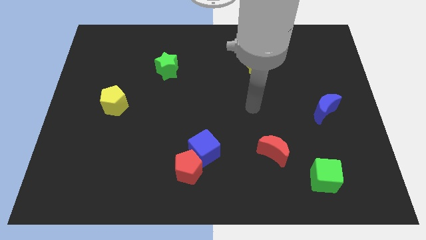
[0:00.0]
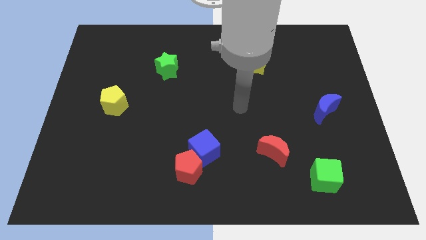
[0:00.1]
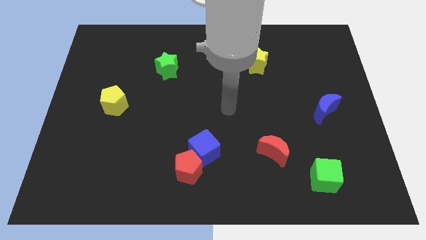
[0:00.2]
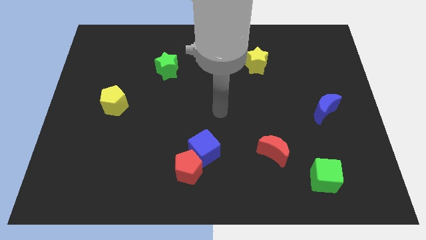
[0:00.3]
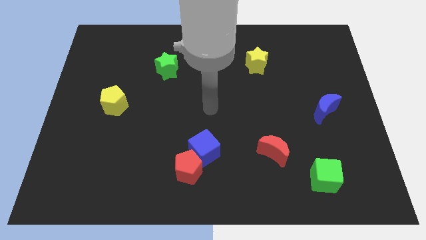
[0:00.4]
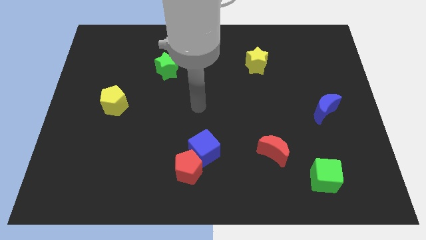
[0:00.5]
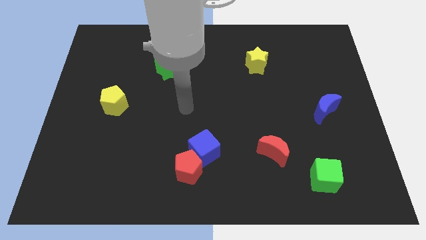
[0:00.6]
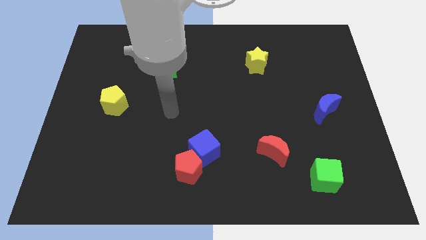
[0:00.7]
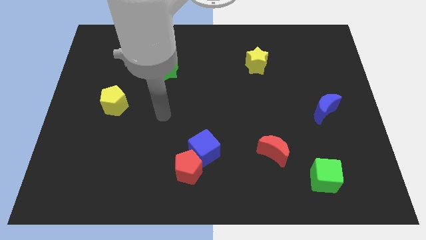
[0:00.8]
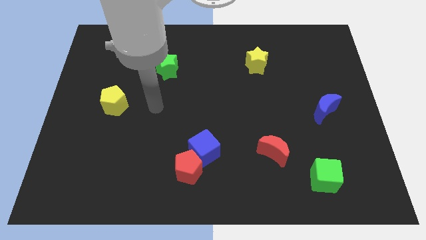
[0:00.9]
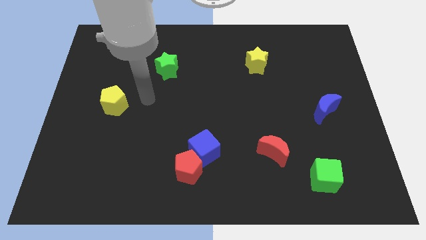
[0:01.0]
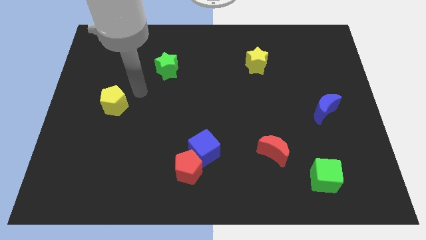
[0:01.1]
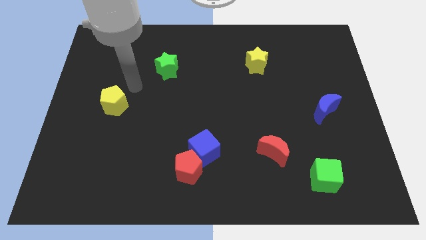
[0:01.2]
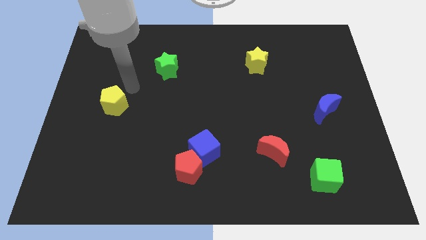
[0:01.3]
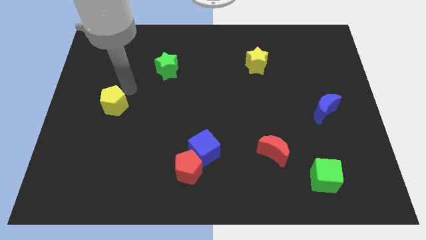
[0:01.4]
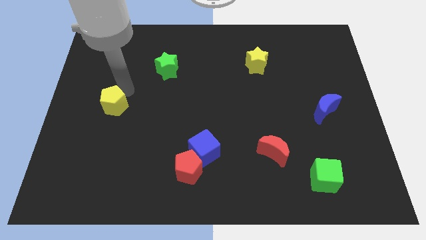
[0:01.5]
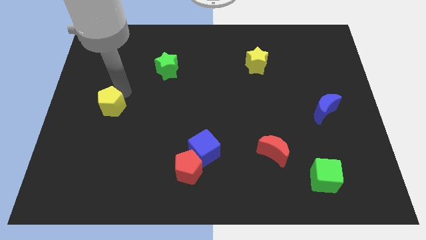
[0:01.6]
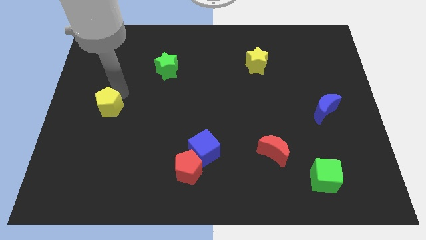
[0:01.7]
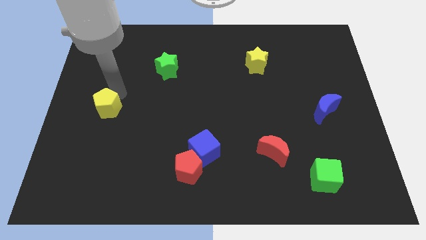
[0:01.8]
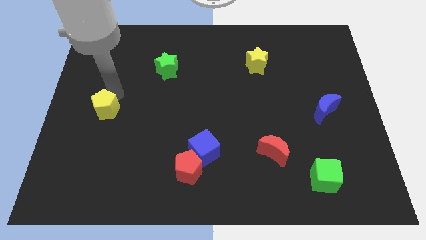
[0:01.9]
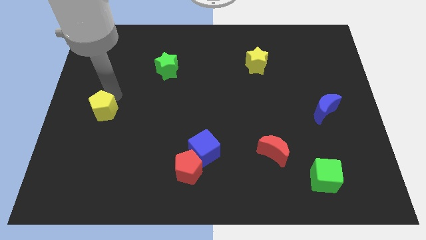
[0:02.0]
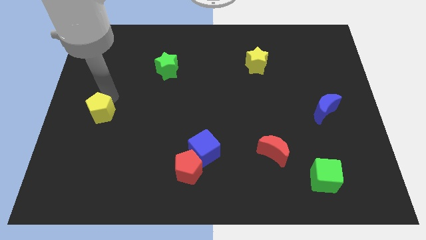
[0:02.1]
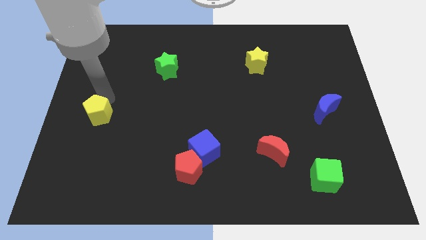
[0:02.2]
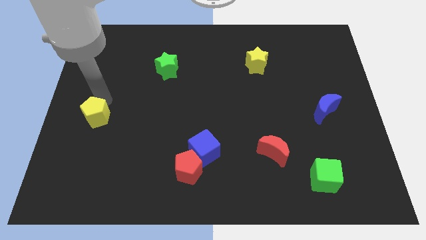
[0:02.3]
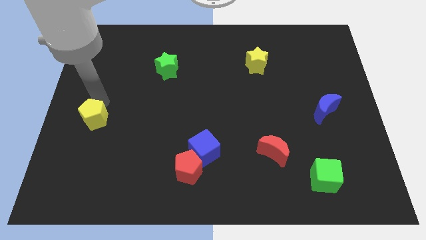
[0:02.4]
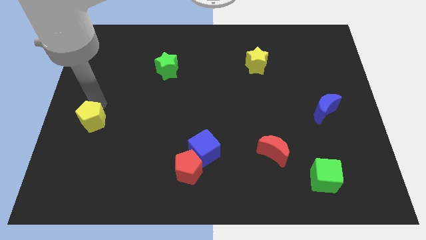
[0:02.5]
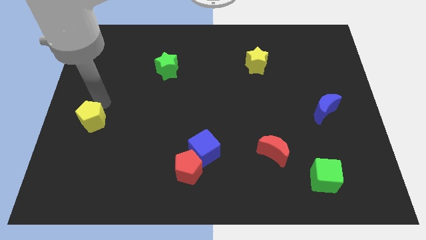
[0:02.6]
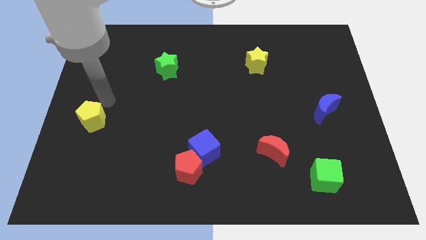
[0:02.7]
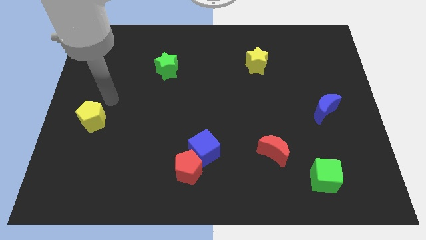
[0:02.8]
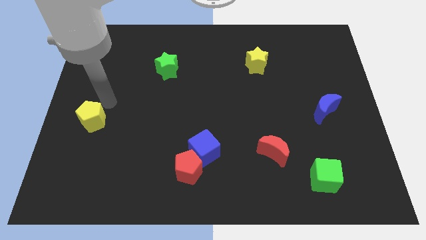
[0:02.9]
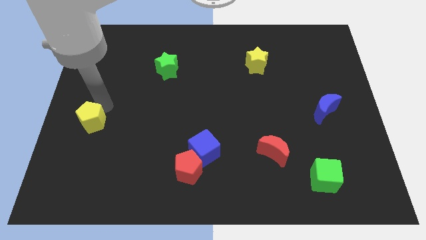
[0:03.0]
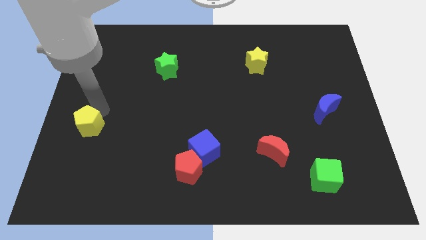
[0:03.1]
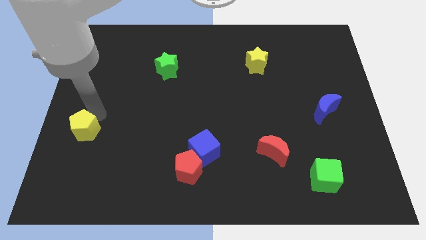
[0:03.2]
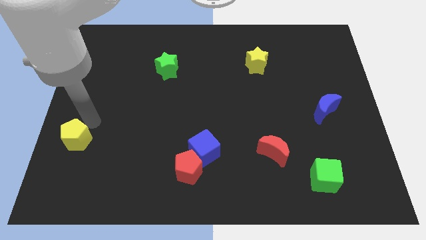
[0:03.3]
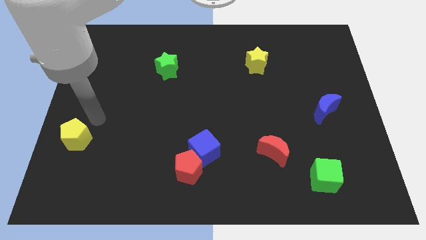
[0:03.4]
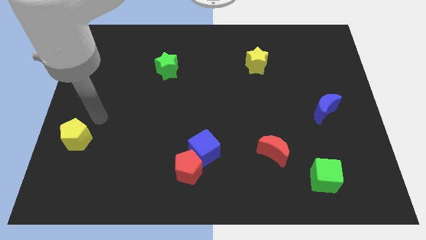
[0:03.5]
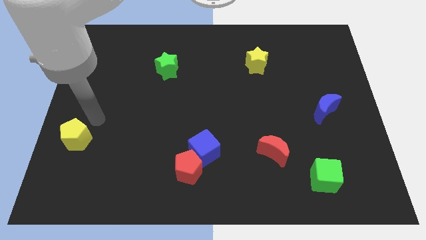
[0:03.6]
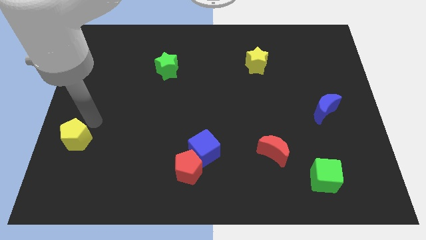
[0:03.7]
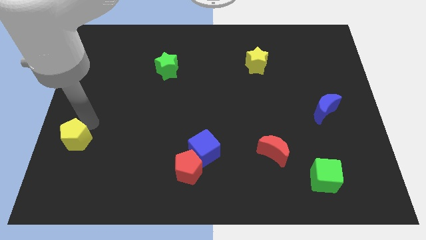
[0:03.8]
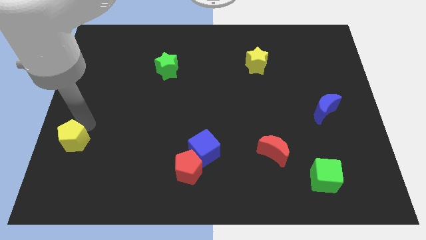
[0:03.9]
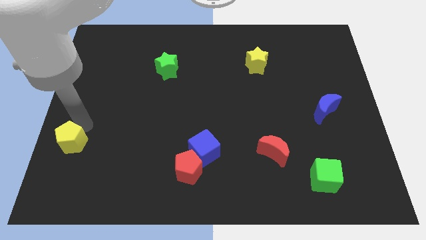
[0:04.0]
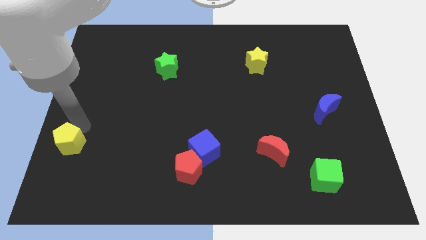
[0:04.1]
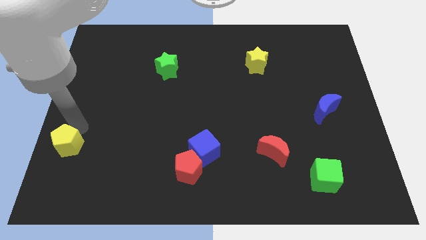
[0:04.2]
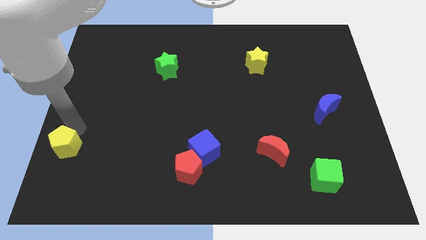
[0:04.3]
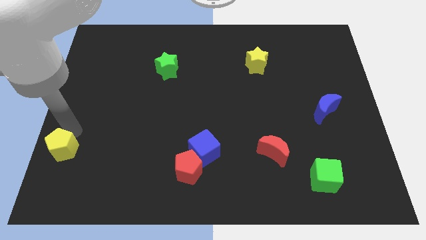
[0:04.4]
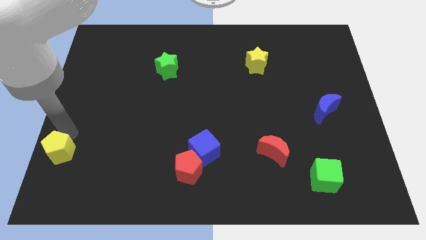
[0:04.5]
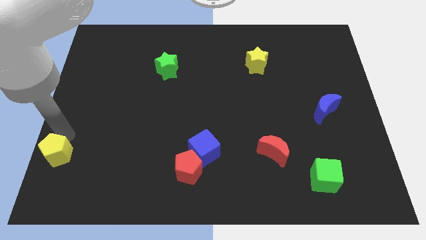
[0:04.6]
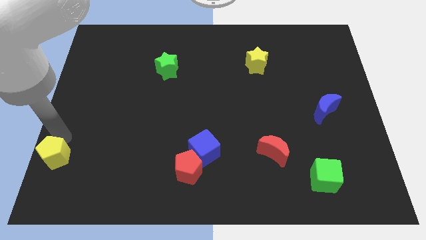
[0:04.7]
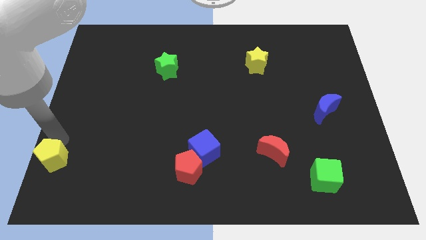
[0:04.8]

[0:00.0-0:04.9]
push the yellow pentagon to the bottom left

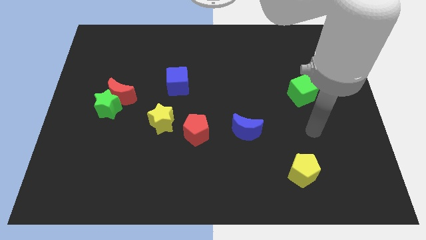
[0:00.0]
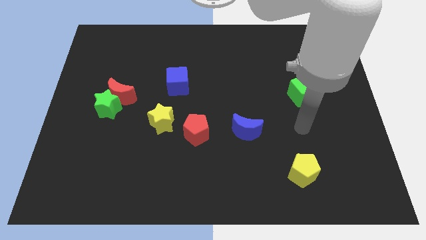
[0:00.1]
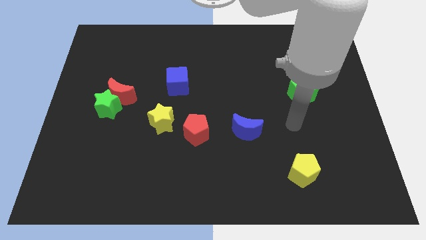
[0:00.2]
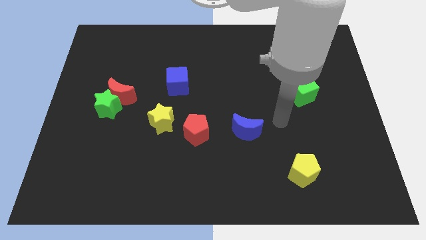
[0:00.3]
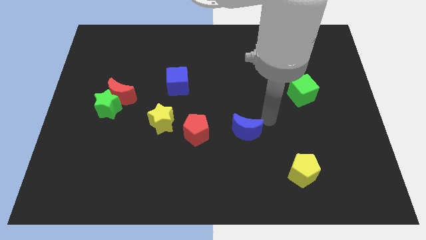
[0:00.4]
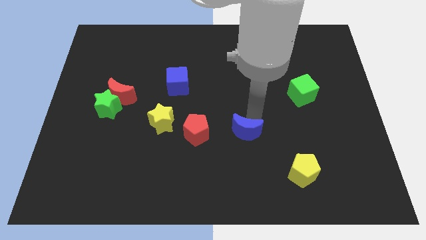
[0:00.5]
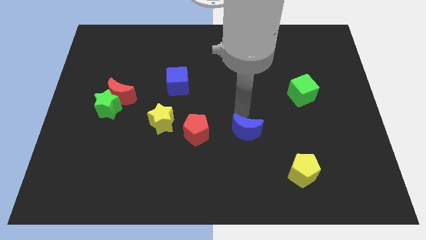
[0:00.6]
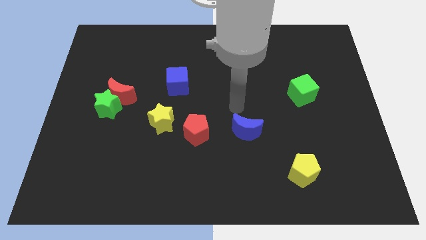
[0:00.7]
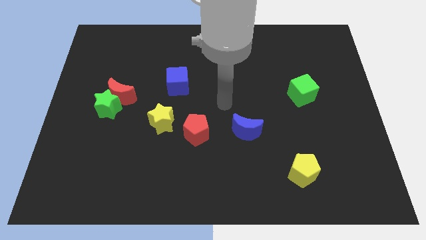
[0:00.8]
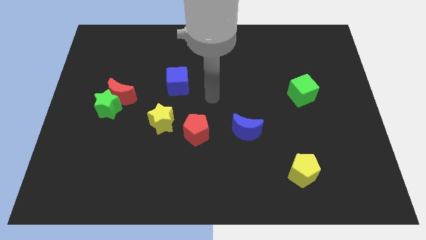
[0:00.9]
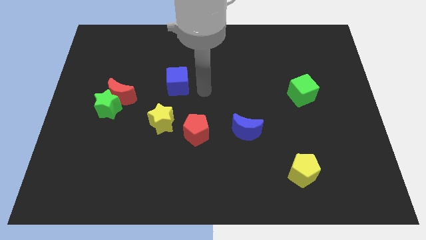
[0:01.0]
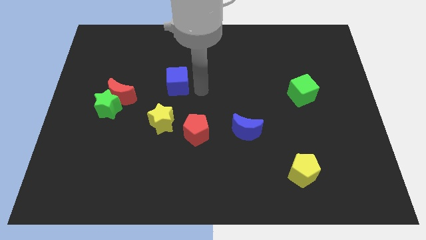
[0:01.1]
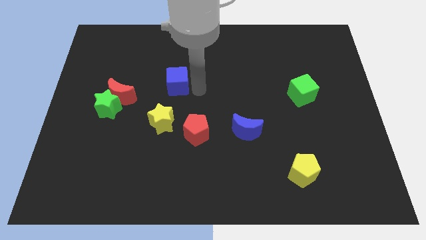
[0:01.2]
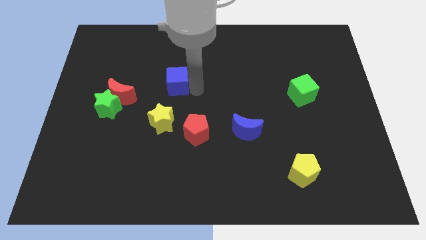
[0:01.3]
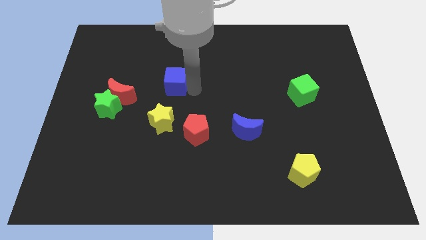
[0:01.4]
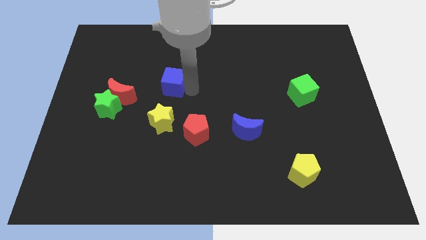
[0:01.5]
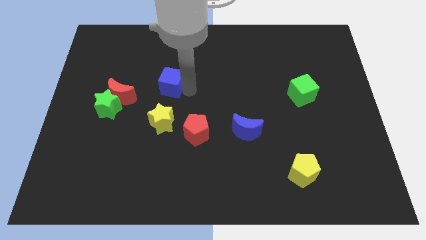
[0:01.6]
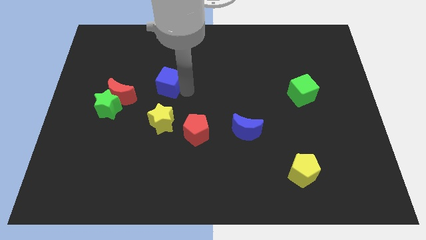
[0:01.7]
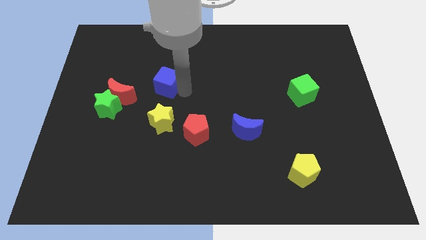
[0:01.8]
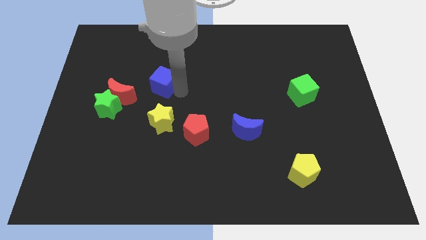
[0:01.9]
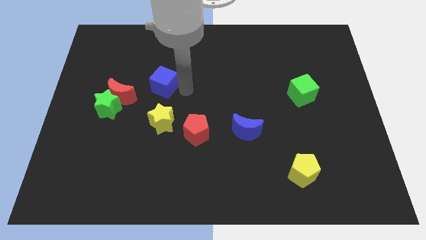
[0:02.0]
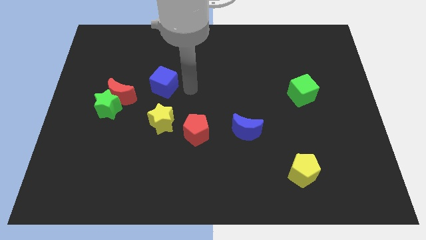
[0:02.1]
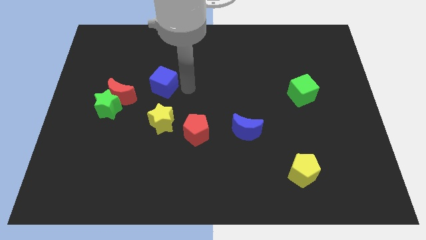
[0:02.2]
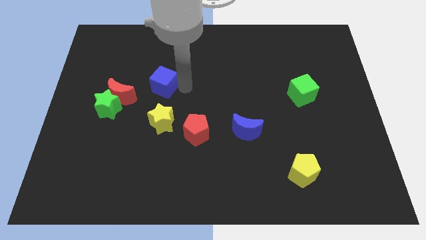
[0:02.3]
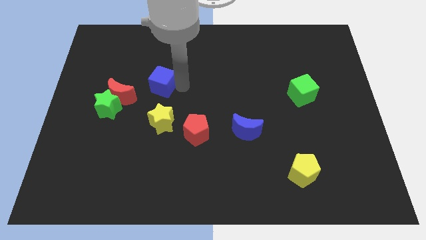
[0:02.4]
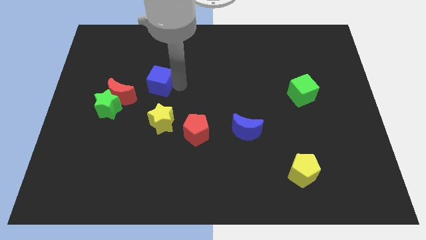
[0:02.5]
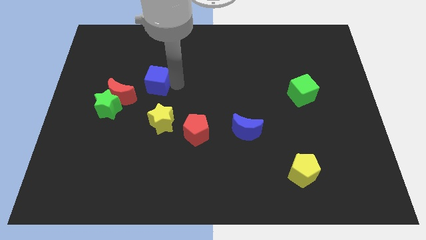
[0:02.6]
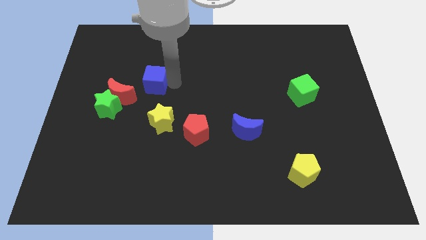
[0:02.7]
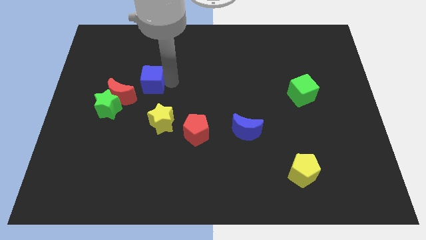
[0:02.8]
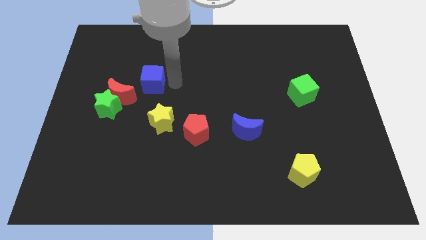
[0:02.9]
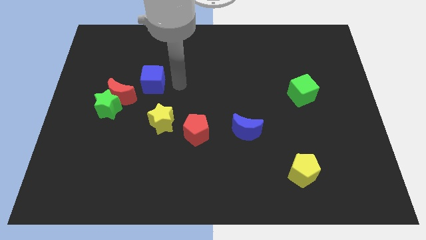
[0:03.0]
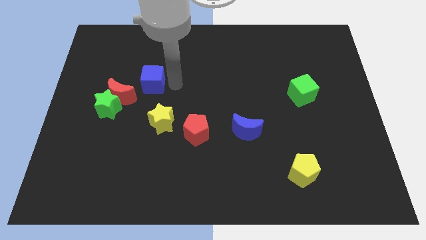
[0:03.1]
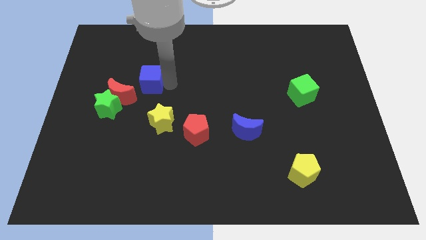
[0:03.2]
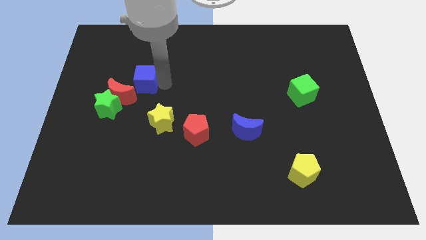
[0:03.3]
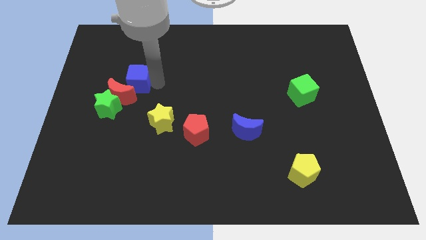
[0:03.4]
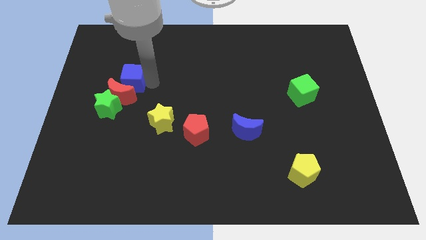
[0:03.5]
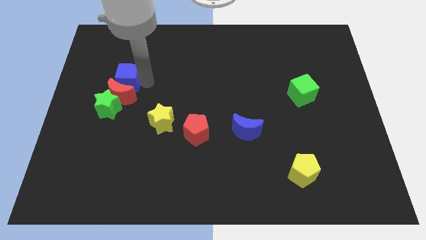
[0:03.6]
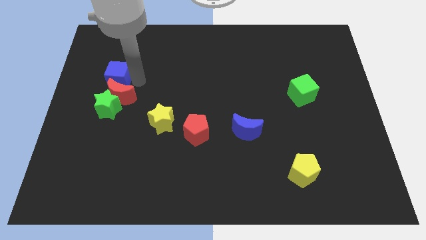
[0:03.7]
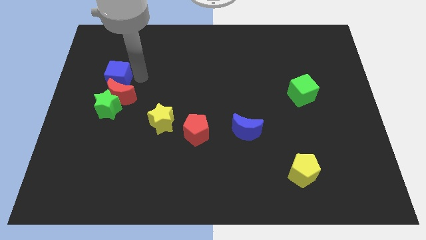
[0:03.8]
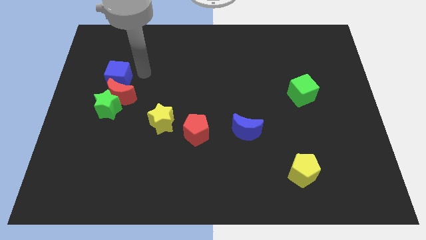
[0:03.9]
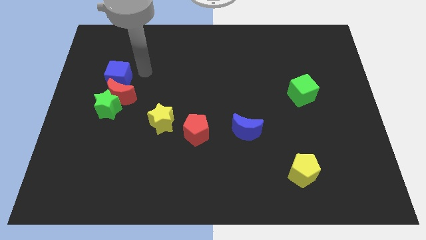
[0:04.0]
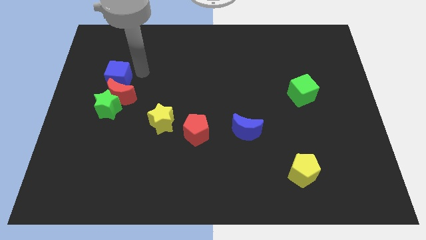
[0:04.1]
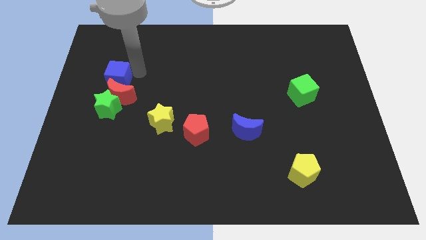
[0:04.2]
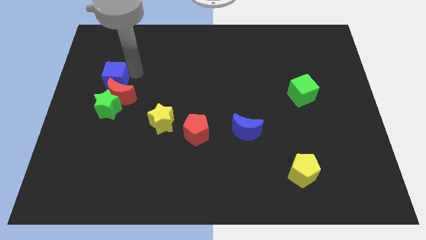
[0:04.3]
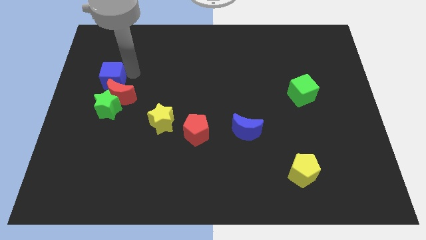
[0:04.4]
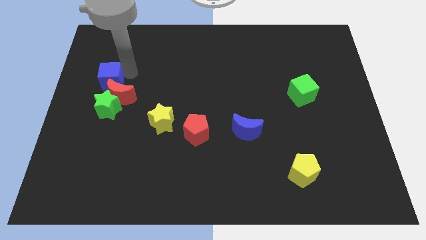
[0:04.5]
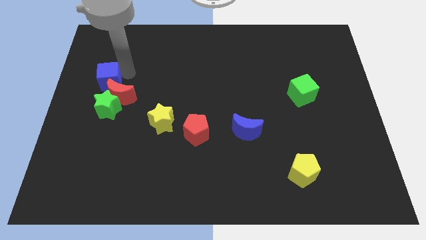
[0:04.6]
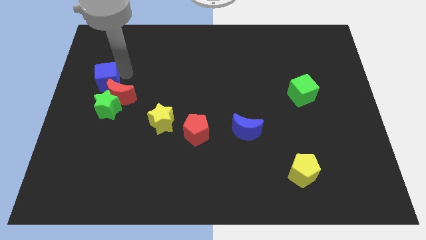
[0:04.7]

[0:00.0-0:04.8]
push the blue cube to the left side
